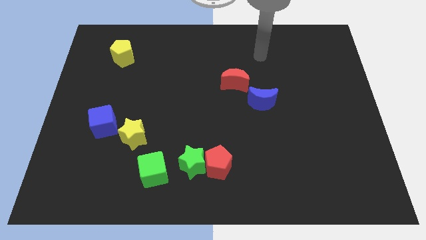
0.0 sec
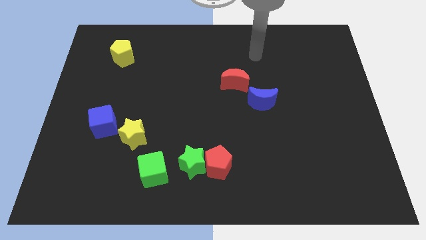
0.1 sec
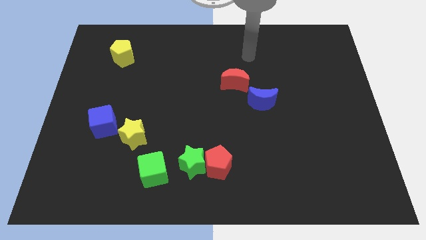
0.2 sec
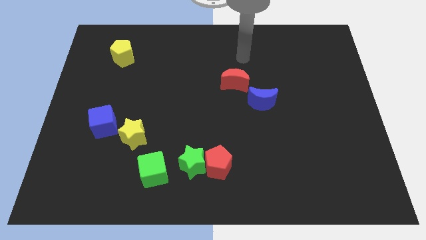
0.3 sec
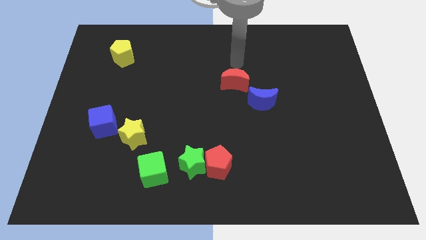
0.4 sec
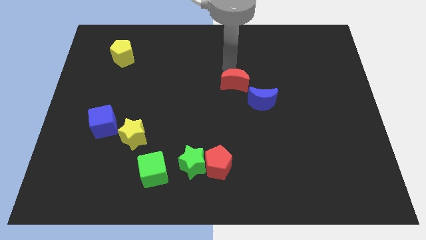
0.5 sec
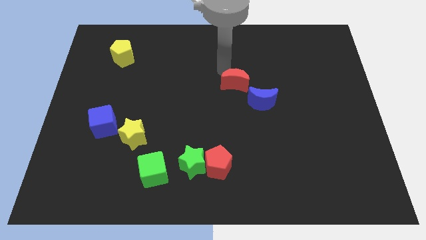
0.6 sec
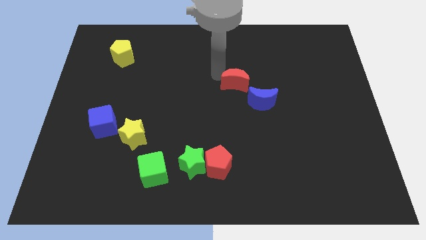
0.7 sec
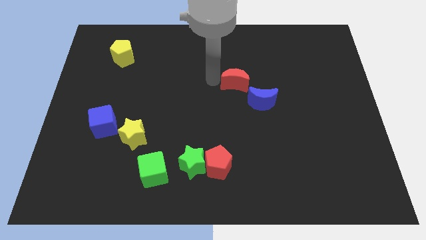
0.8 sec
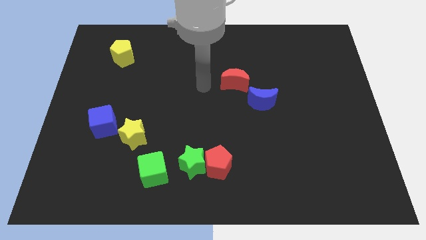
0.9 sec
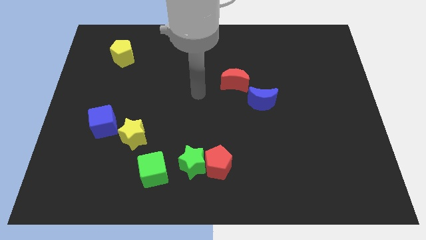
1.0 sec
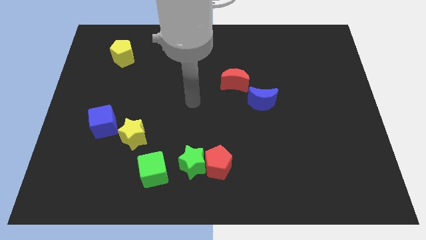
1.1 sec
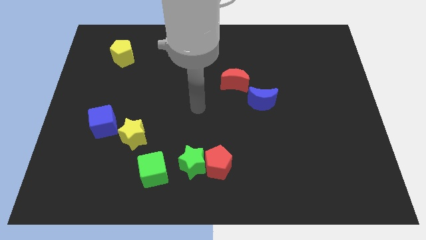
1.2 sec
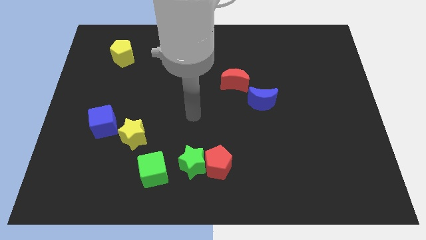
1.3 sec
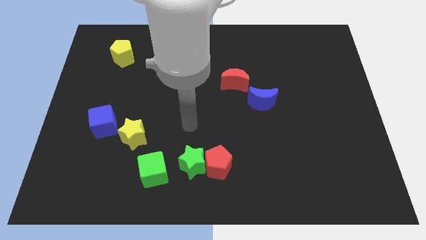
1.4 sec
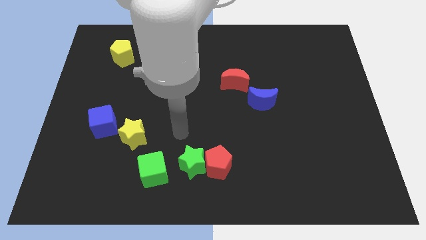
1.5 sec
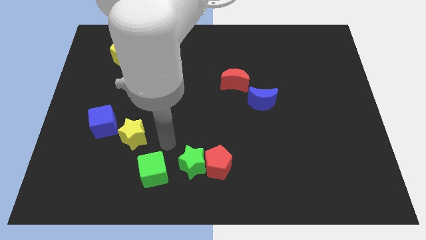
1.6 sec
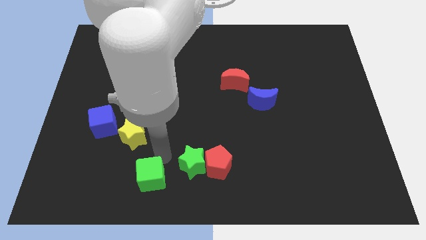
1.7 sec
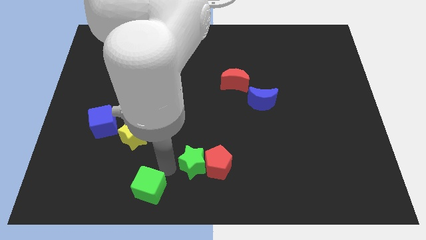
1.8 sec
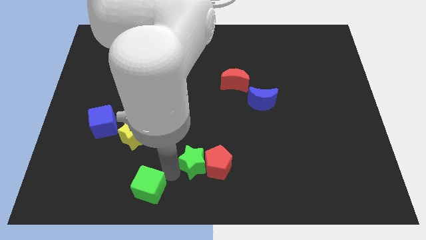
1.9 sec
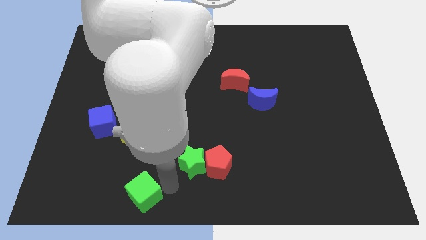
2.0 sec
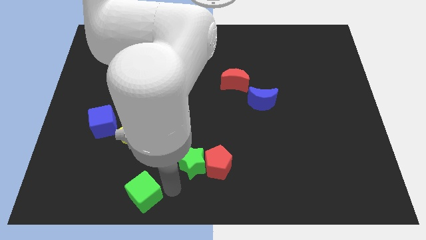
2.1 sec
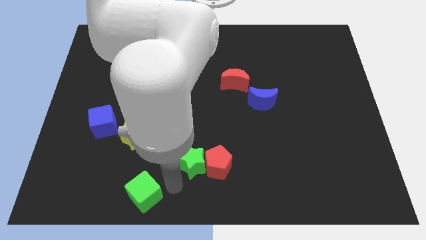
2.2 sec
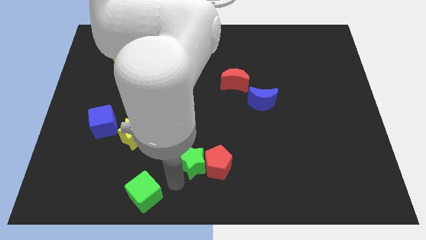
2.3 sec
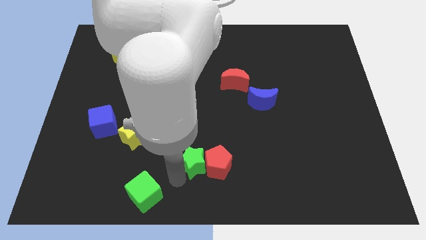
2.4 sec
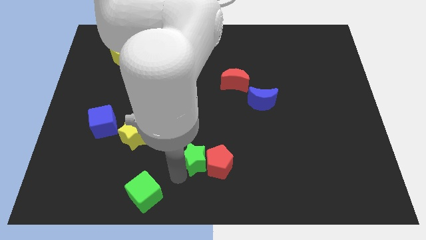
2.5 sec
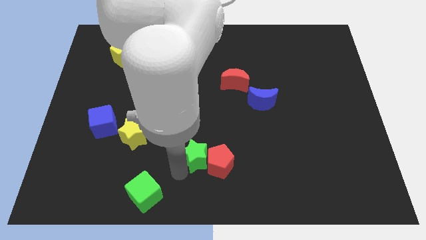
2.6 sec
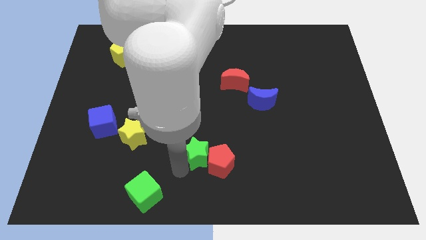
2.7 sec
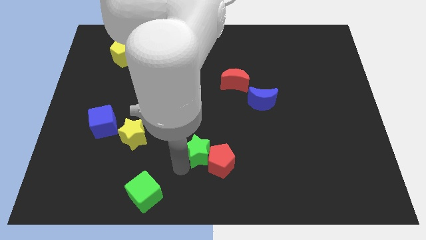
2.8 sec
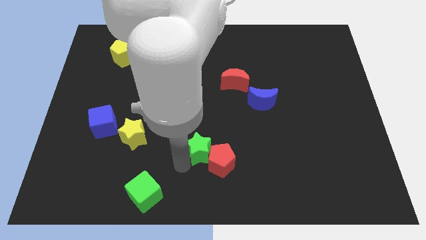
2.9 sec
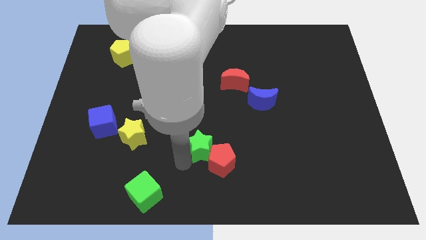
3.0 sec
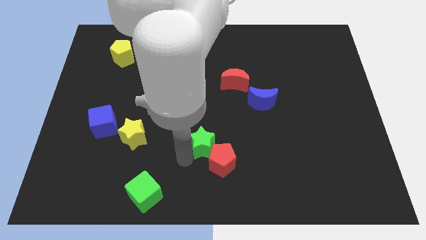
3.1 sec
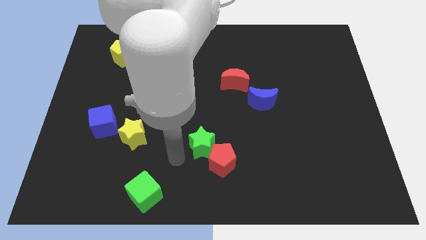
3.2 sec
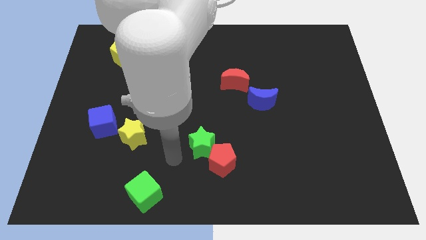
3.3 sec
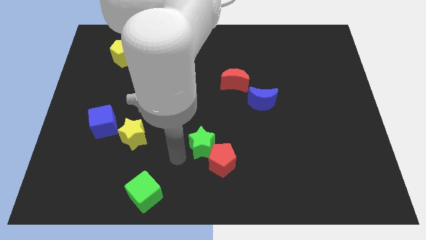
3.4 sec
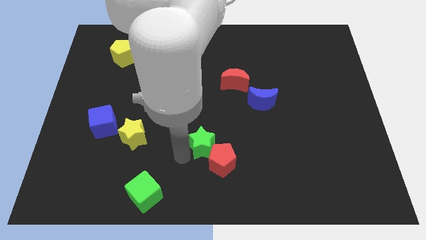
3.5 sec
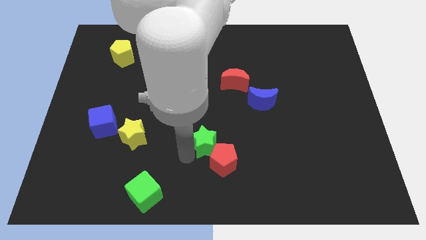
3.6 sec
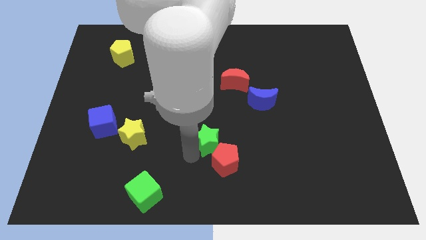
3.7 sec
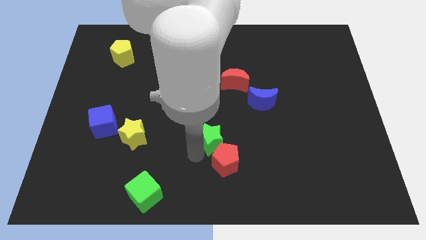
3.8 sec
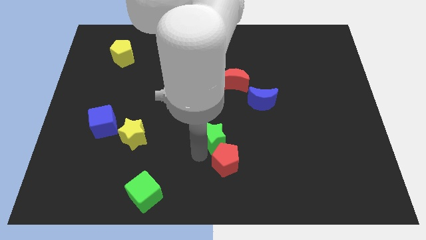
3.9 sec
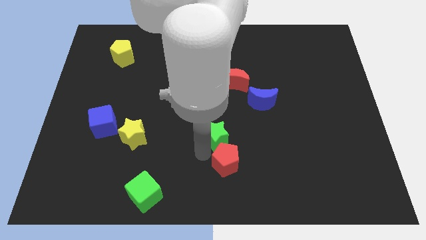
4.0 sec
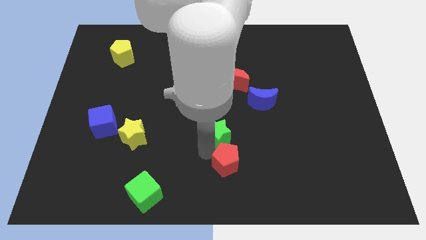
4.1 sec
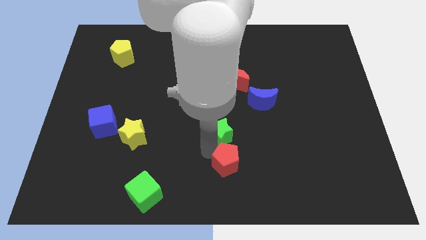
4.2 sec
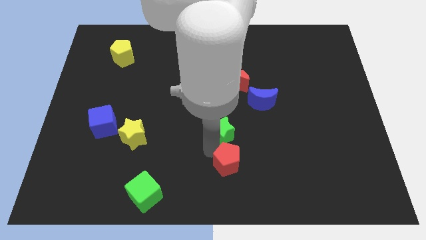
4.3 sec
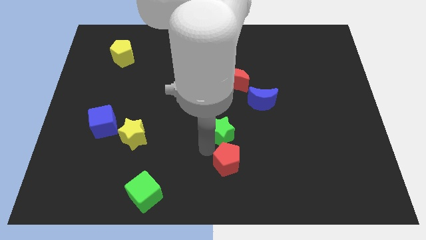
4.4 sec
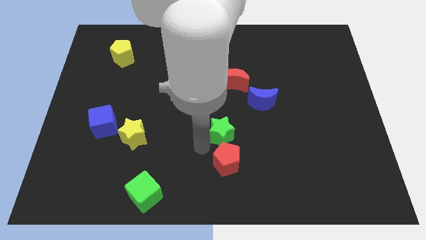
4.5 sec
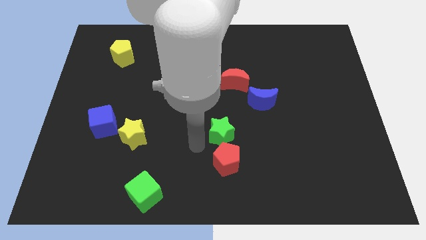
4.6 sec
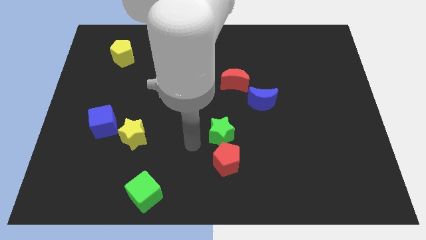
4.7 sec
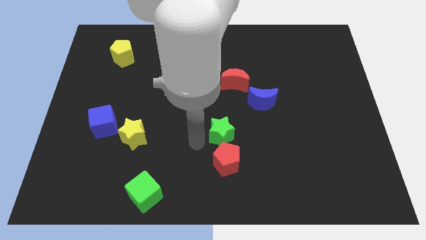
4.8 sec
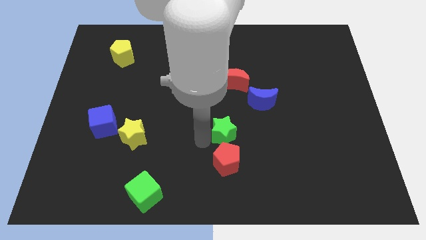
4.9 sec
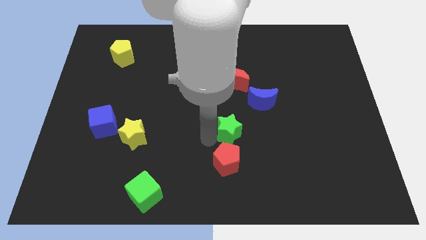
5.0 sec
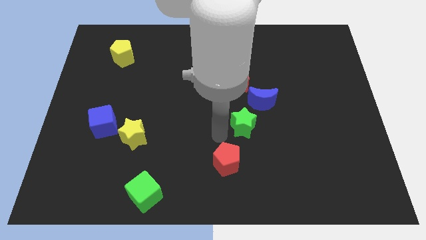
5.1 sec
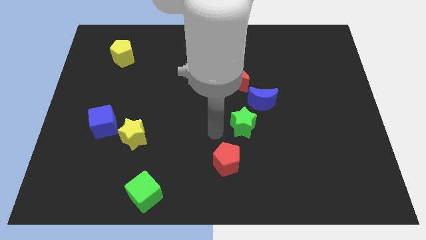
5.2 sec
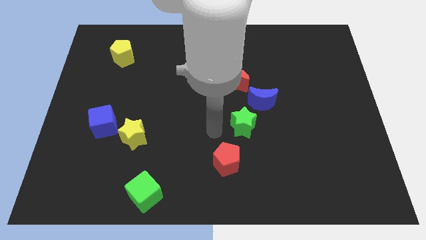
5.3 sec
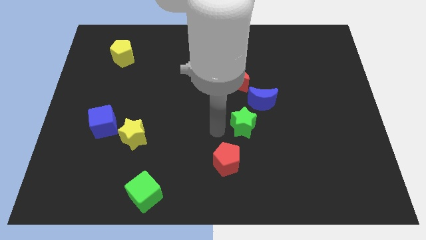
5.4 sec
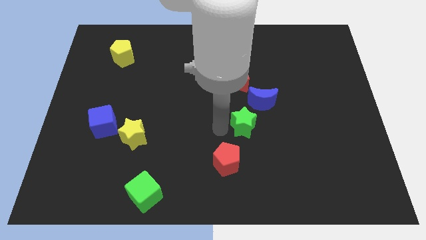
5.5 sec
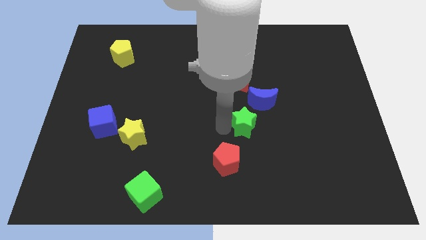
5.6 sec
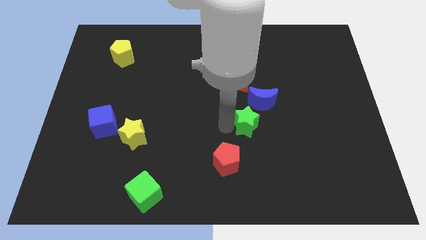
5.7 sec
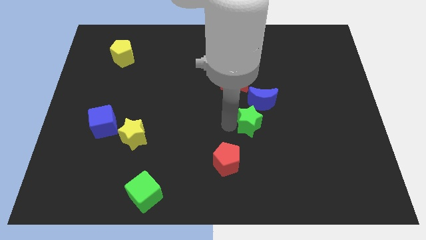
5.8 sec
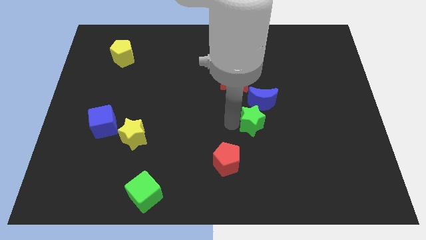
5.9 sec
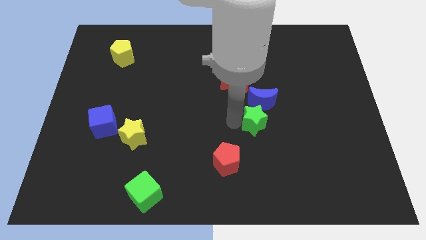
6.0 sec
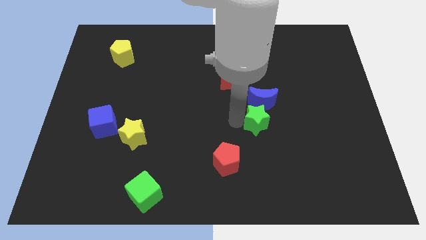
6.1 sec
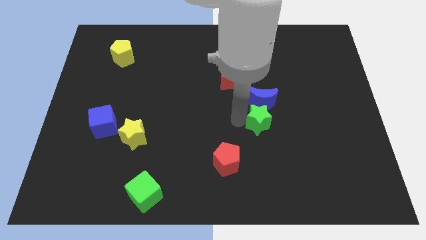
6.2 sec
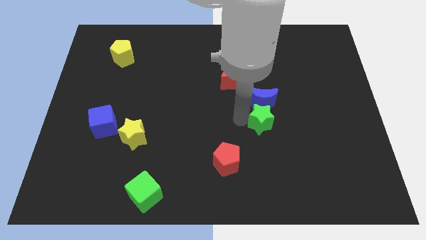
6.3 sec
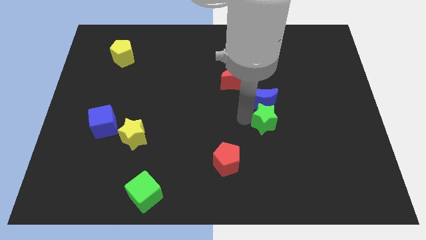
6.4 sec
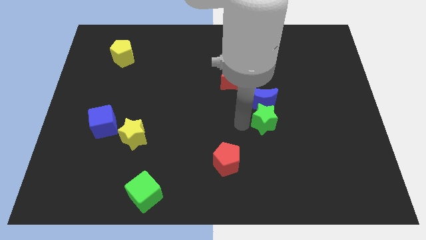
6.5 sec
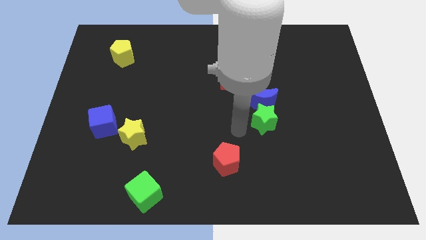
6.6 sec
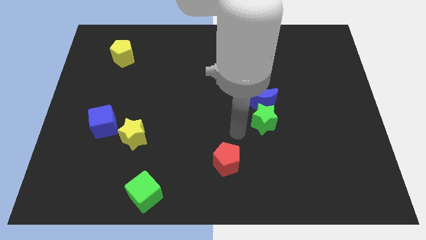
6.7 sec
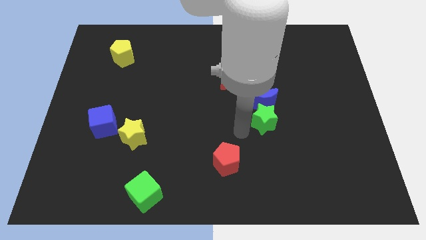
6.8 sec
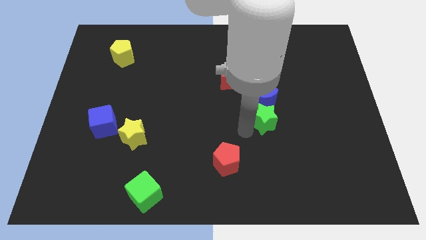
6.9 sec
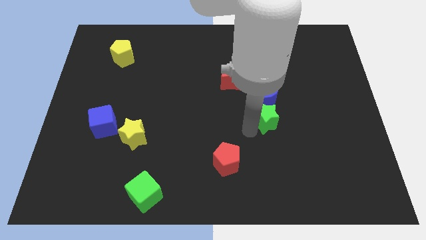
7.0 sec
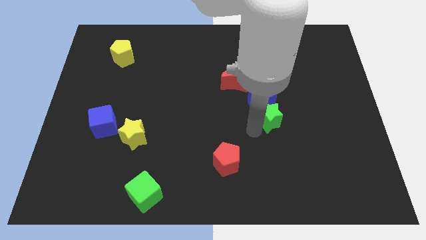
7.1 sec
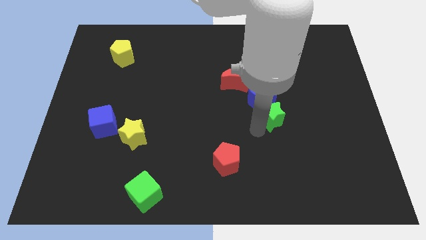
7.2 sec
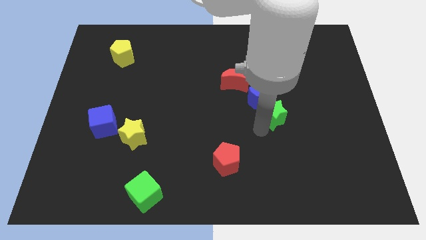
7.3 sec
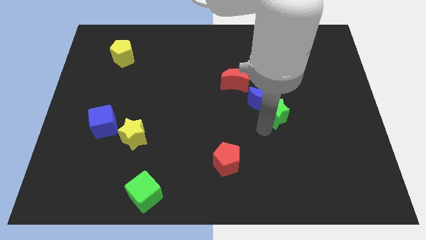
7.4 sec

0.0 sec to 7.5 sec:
slide the green star right of the blue moon

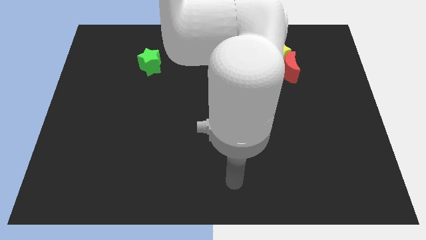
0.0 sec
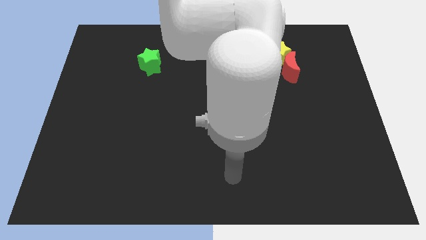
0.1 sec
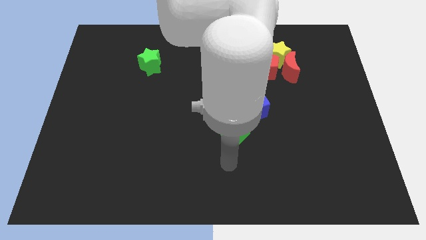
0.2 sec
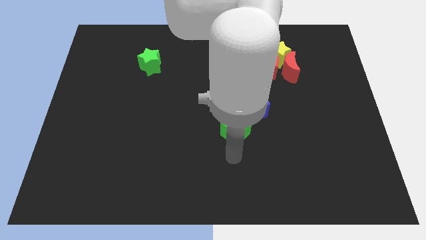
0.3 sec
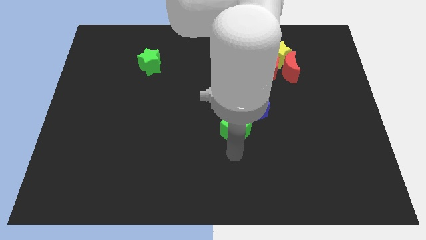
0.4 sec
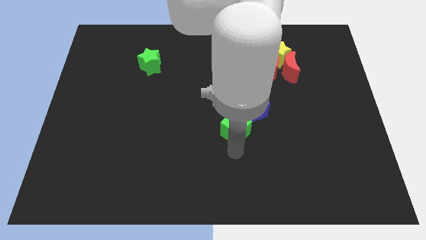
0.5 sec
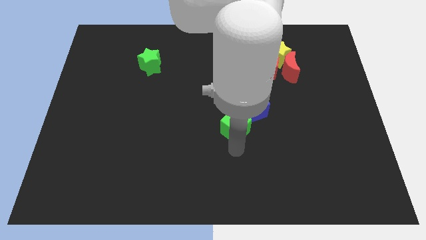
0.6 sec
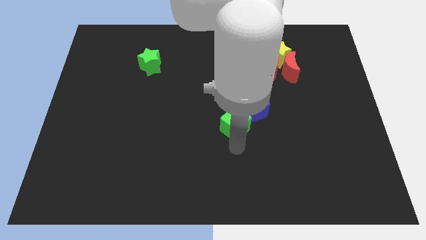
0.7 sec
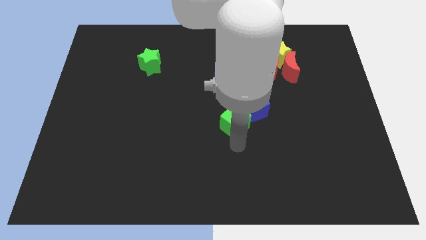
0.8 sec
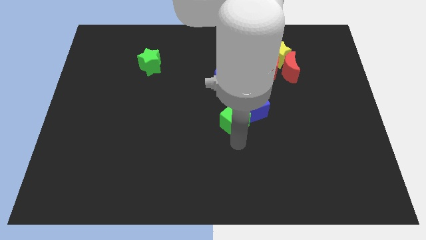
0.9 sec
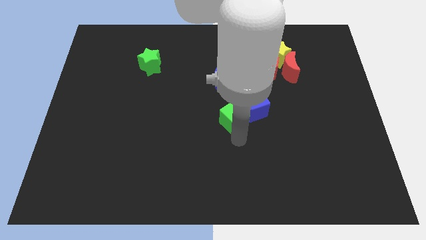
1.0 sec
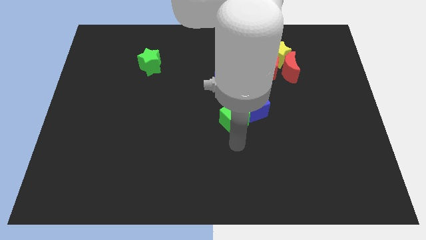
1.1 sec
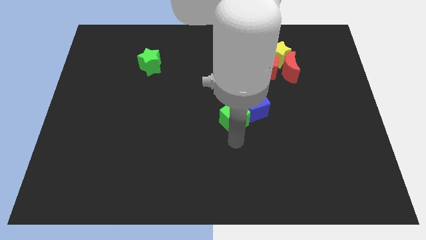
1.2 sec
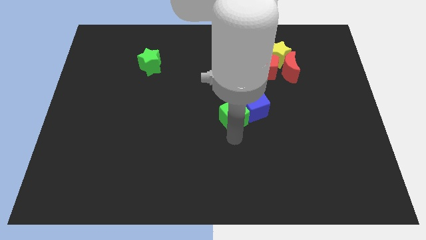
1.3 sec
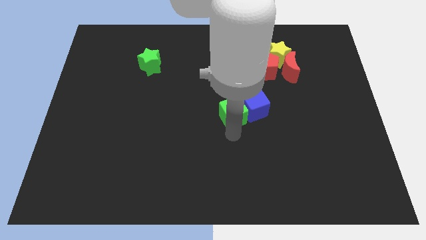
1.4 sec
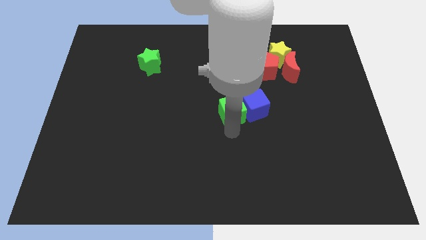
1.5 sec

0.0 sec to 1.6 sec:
push the green cube diagonally up and to the left of the blue cube
